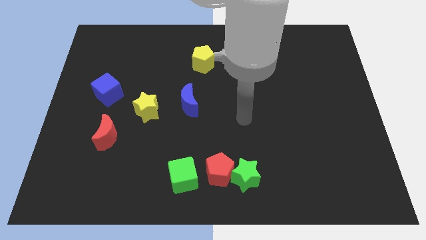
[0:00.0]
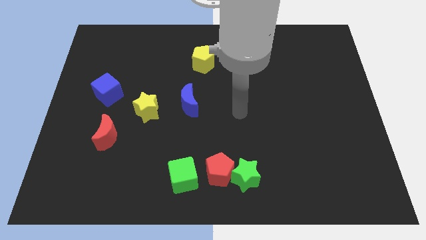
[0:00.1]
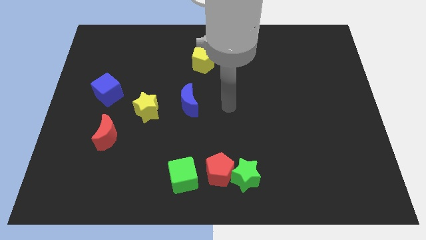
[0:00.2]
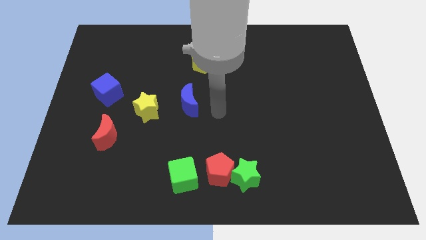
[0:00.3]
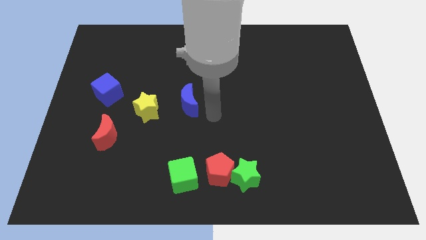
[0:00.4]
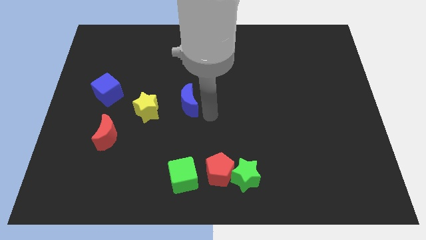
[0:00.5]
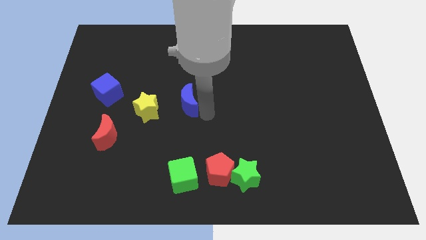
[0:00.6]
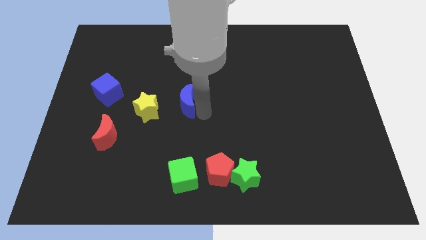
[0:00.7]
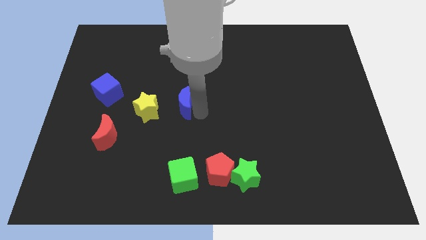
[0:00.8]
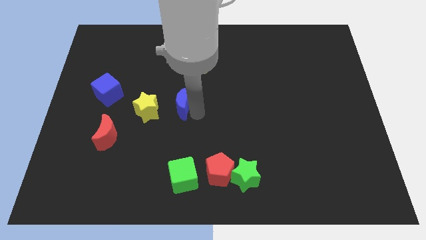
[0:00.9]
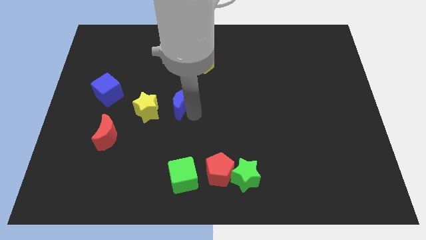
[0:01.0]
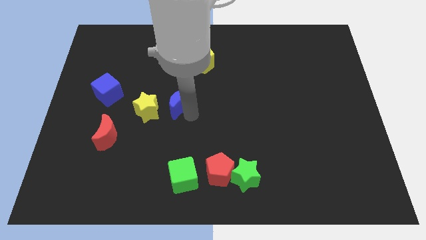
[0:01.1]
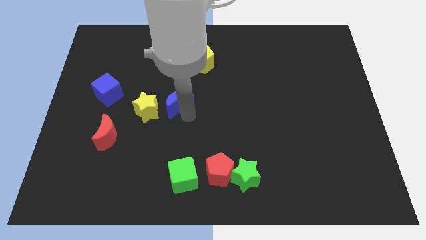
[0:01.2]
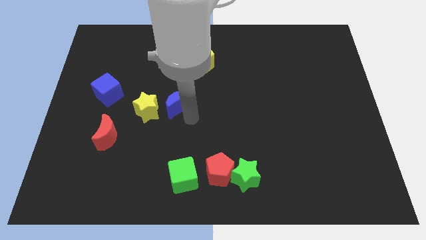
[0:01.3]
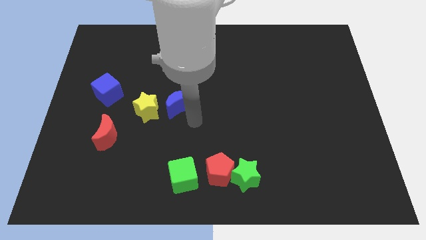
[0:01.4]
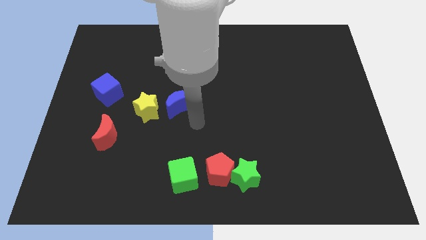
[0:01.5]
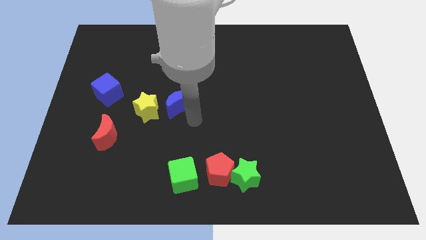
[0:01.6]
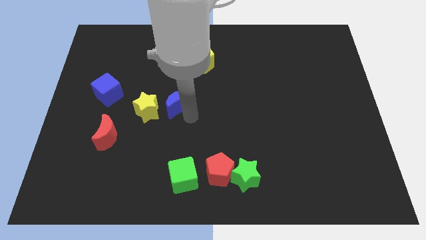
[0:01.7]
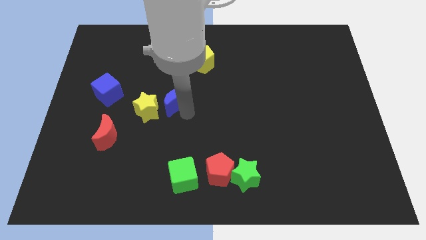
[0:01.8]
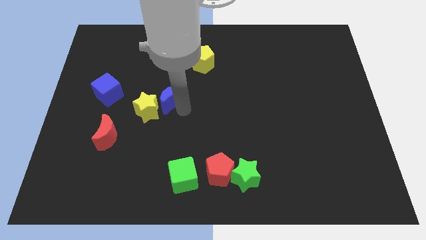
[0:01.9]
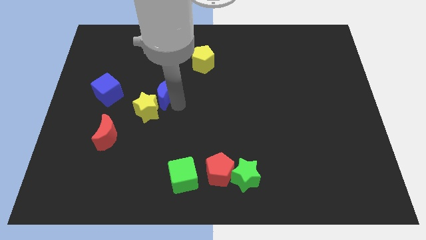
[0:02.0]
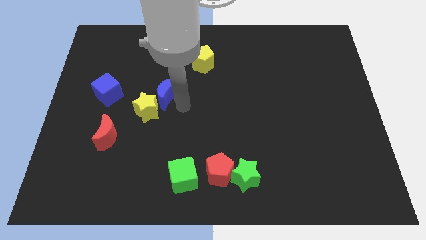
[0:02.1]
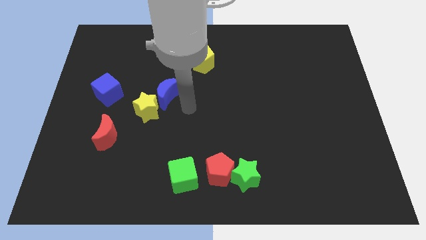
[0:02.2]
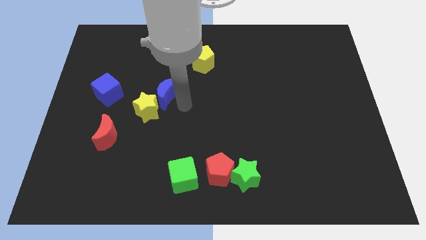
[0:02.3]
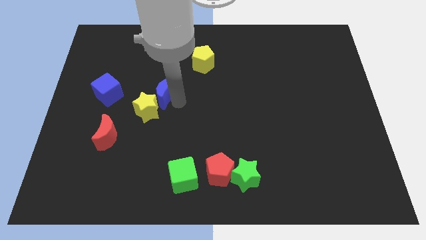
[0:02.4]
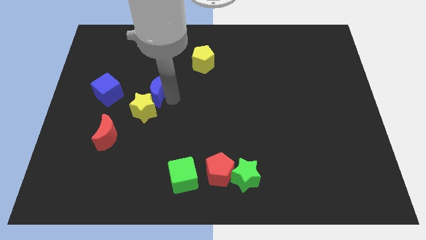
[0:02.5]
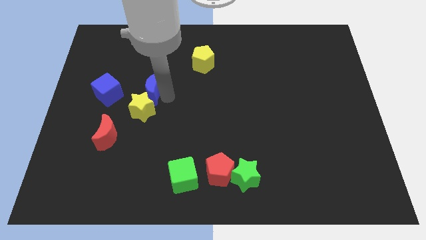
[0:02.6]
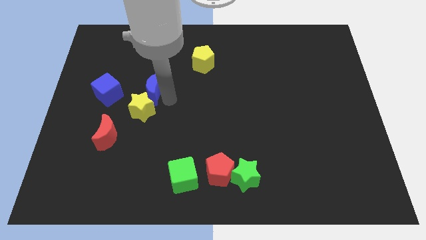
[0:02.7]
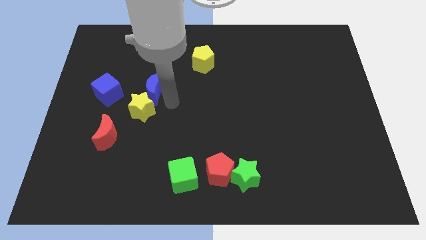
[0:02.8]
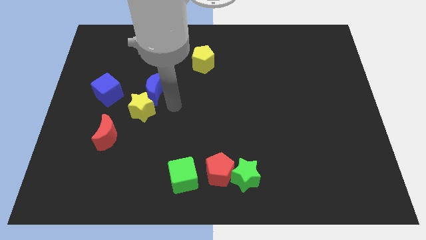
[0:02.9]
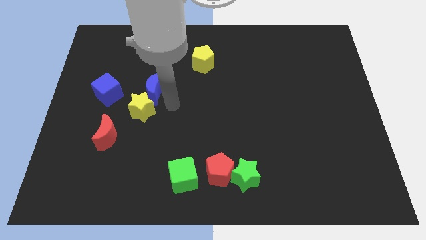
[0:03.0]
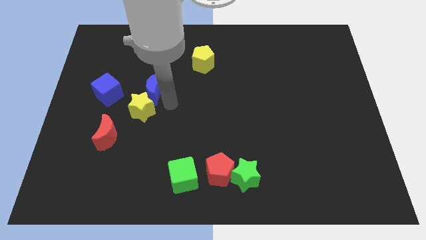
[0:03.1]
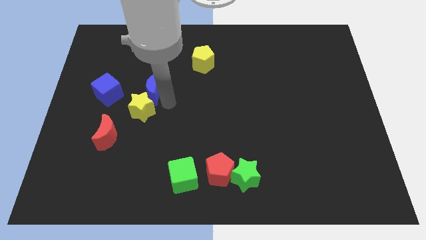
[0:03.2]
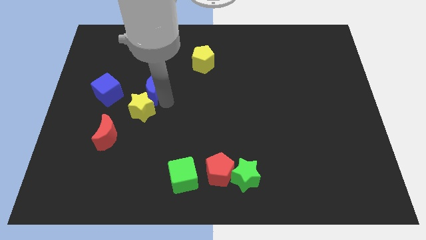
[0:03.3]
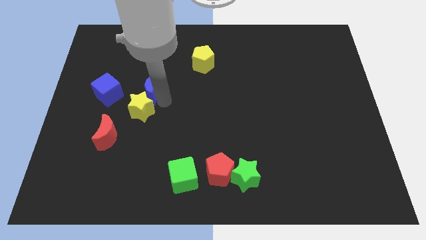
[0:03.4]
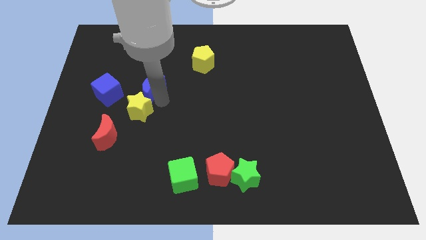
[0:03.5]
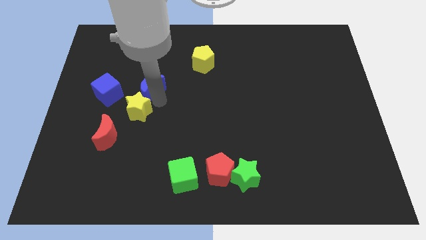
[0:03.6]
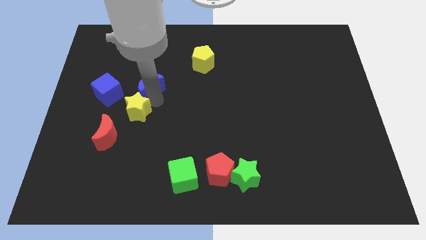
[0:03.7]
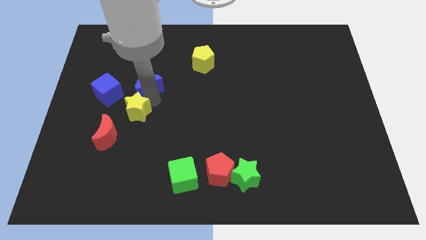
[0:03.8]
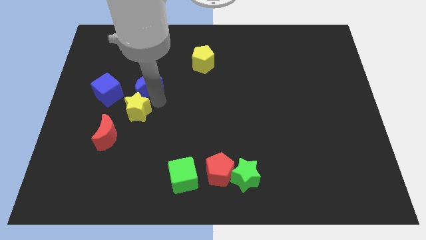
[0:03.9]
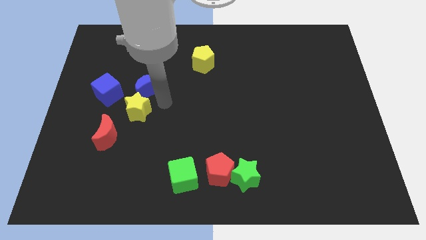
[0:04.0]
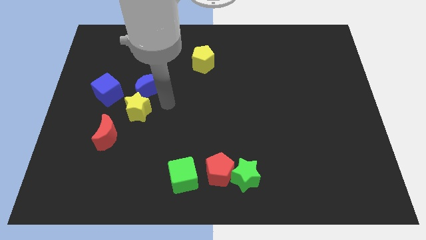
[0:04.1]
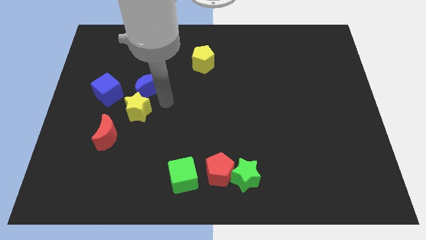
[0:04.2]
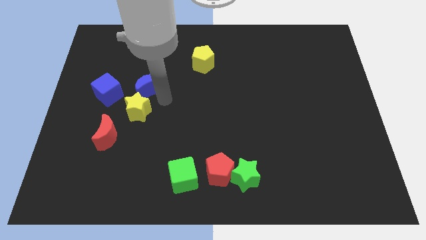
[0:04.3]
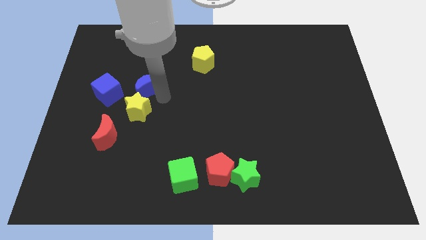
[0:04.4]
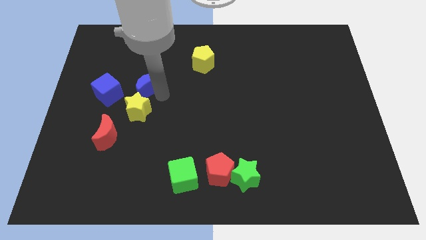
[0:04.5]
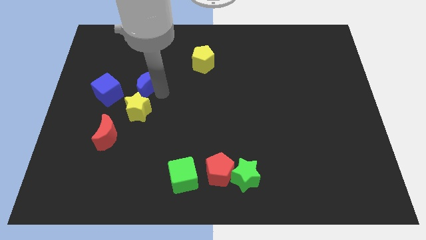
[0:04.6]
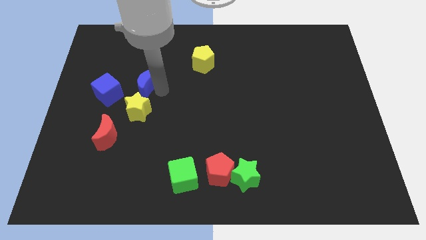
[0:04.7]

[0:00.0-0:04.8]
slide the blue moon to the top right of the blue cube

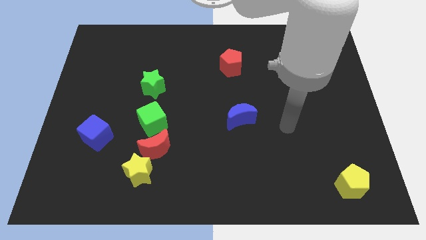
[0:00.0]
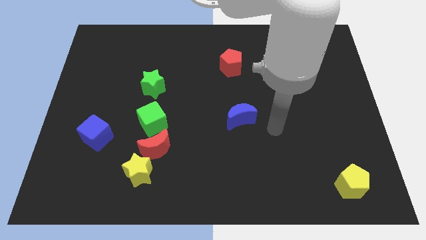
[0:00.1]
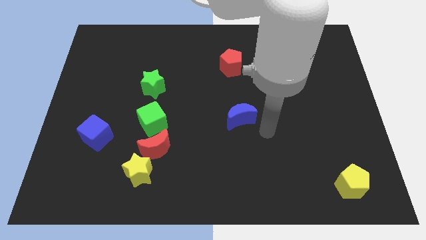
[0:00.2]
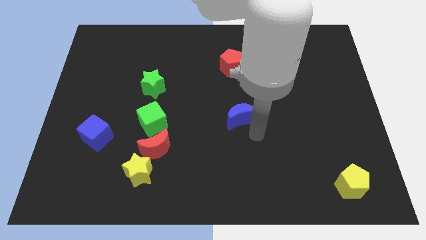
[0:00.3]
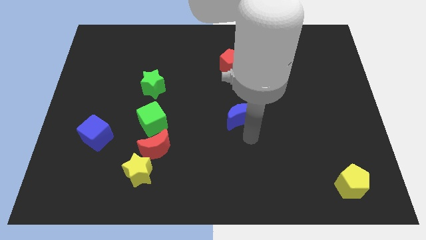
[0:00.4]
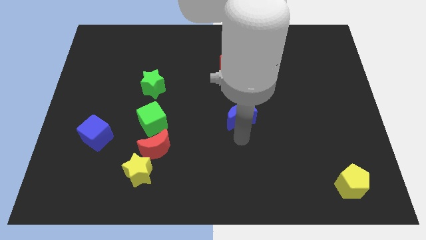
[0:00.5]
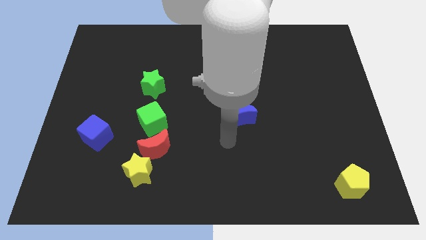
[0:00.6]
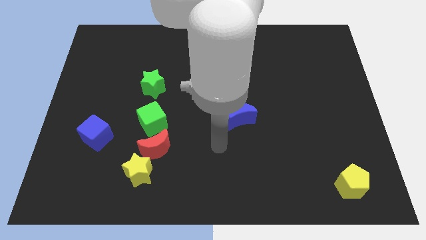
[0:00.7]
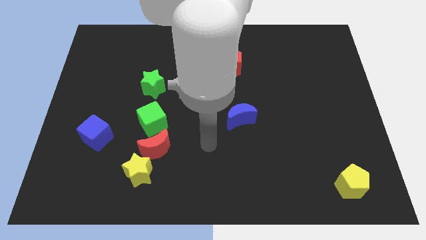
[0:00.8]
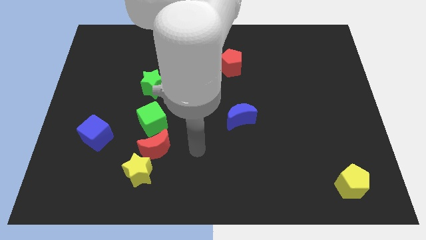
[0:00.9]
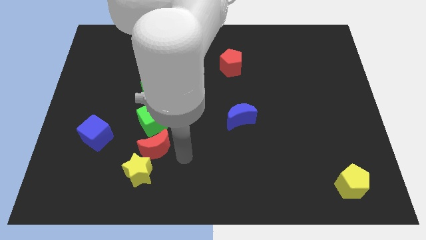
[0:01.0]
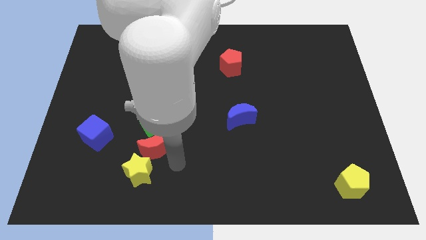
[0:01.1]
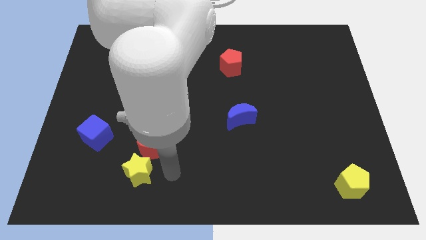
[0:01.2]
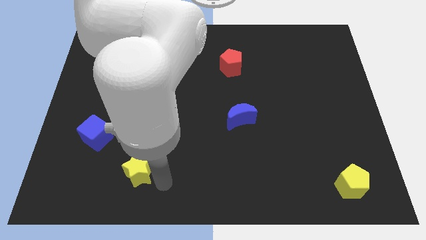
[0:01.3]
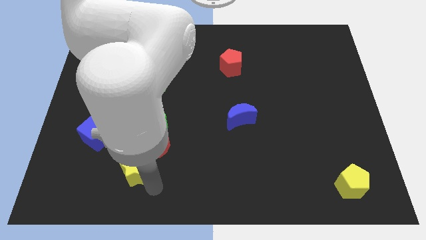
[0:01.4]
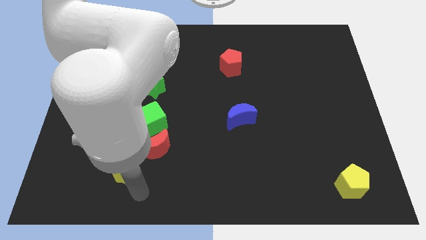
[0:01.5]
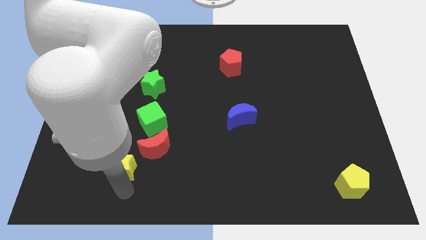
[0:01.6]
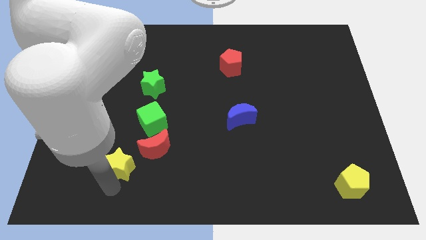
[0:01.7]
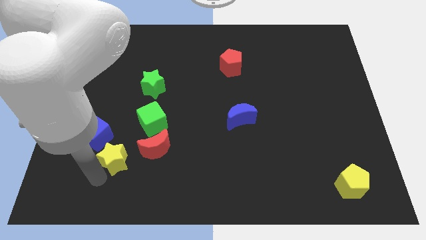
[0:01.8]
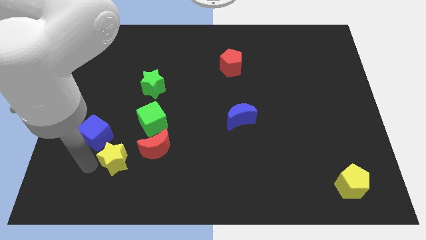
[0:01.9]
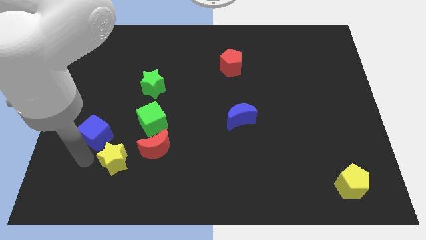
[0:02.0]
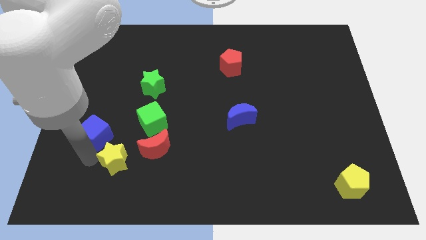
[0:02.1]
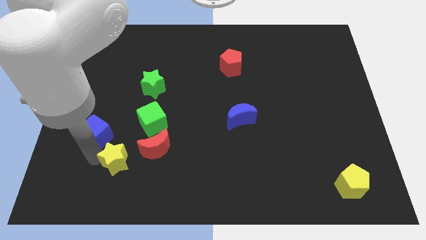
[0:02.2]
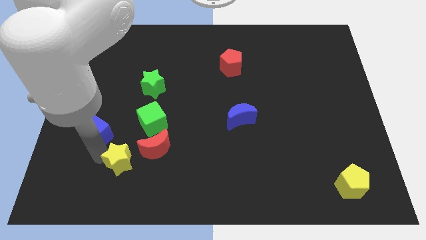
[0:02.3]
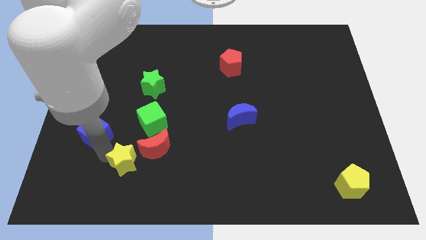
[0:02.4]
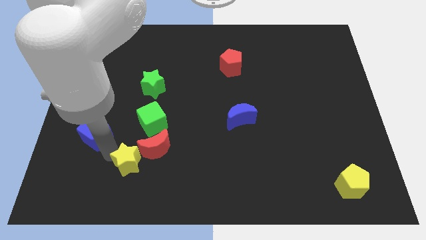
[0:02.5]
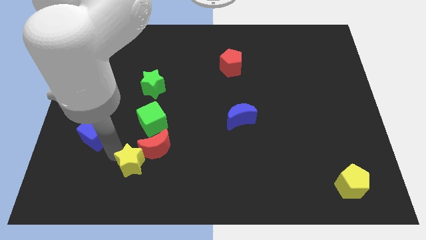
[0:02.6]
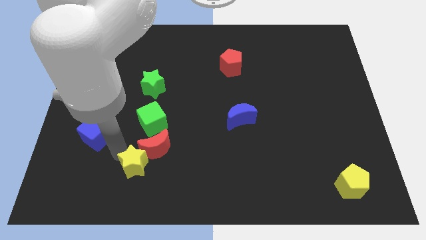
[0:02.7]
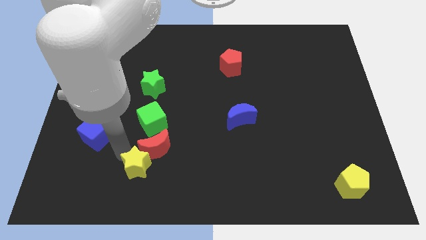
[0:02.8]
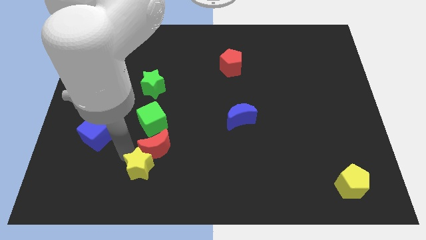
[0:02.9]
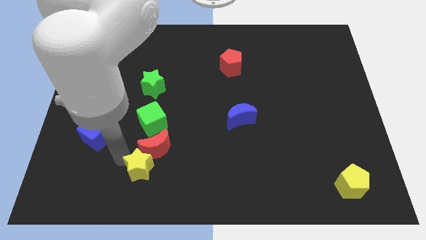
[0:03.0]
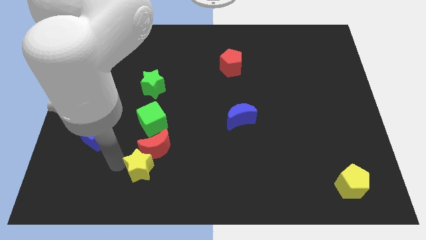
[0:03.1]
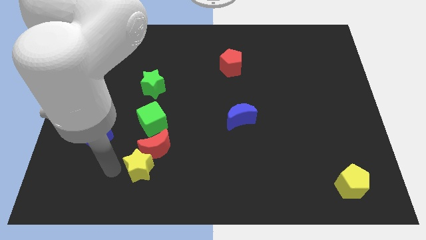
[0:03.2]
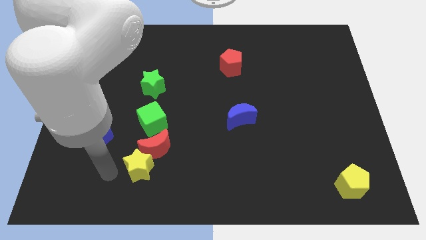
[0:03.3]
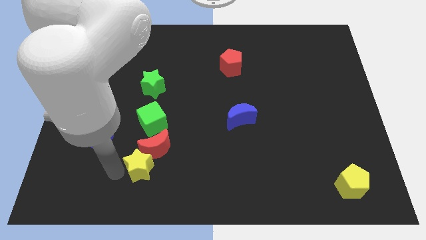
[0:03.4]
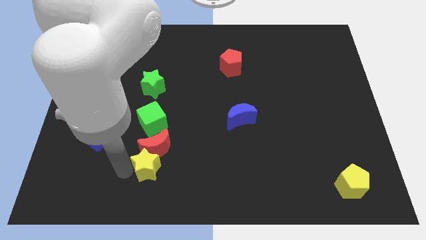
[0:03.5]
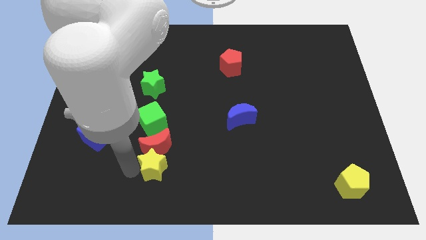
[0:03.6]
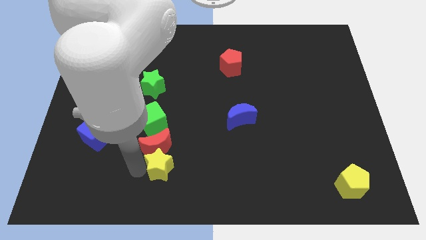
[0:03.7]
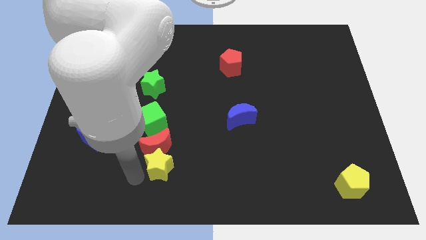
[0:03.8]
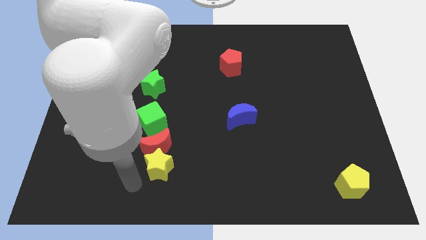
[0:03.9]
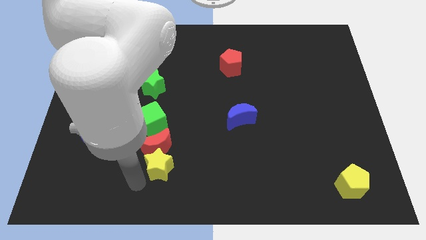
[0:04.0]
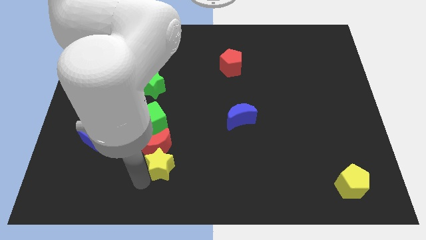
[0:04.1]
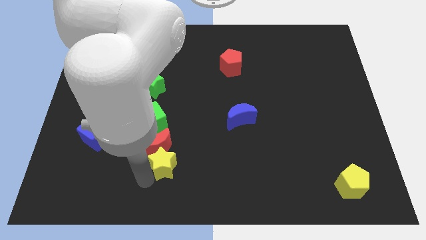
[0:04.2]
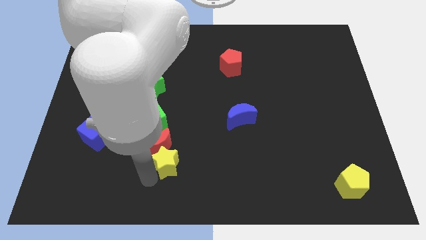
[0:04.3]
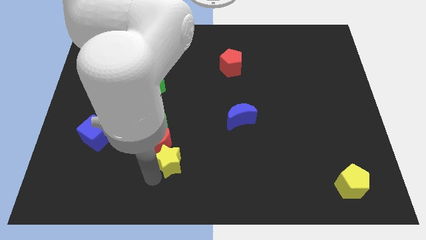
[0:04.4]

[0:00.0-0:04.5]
slide the yellow star to the bottom right of the green cube
